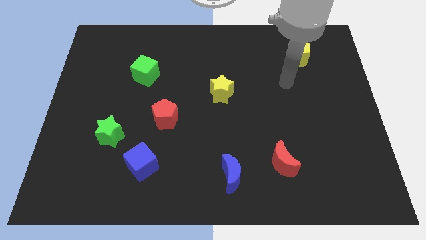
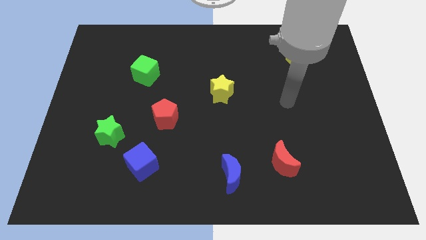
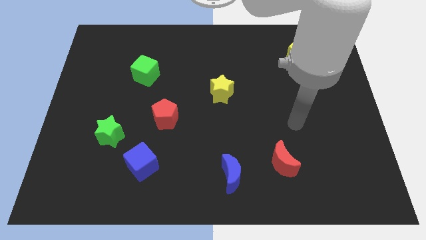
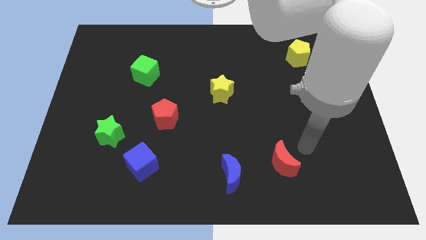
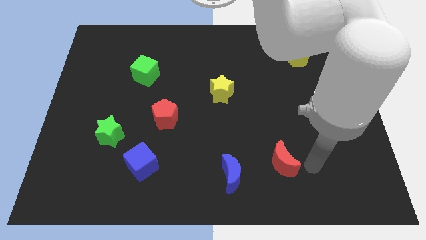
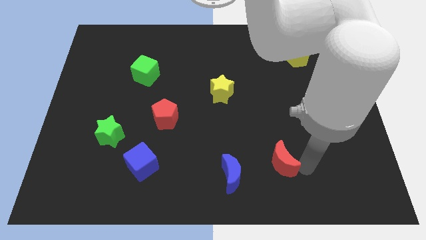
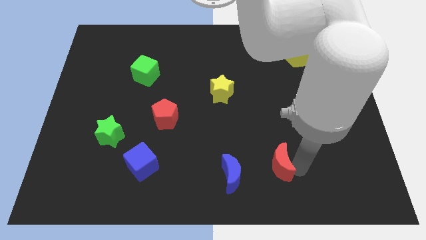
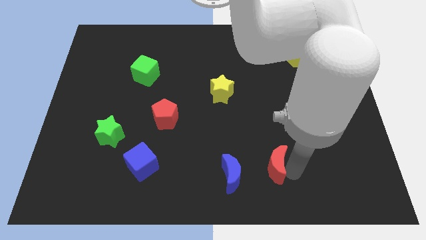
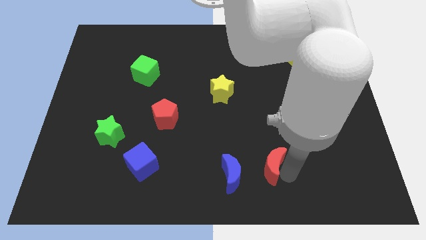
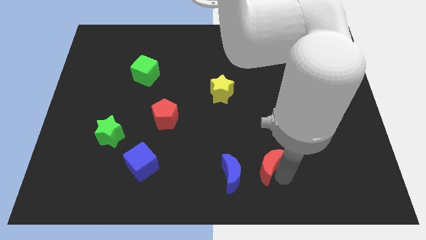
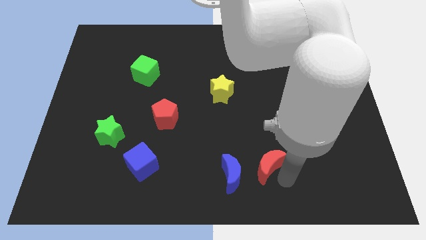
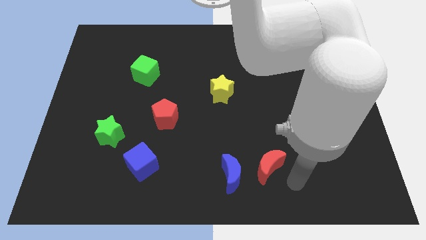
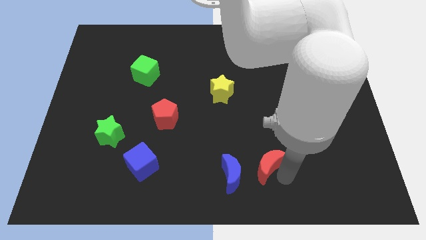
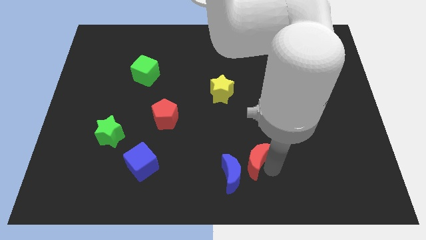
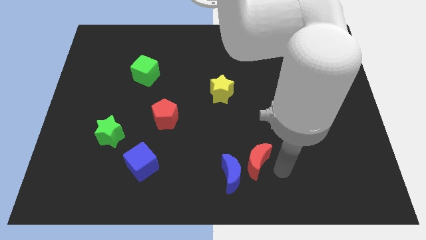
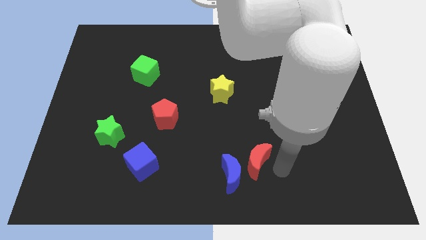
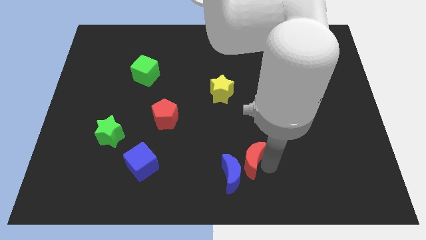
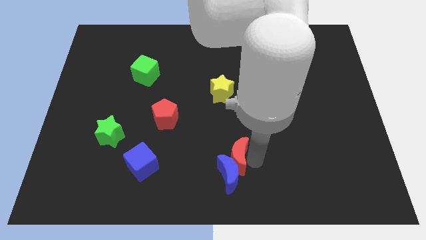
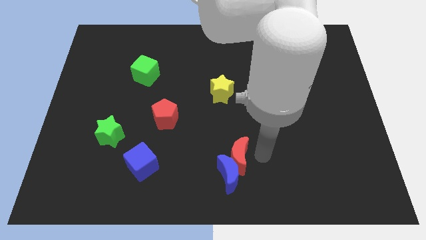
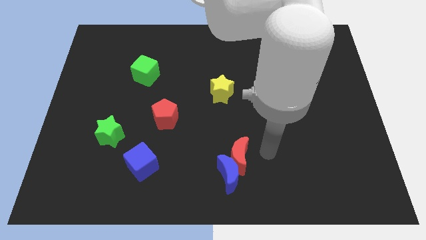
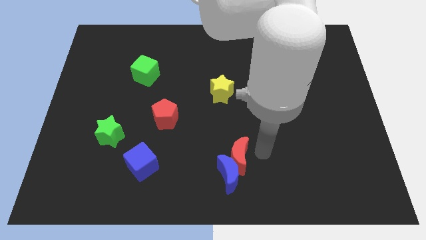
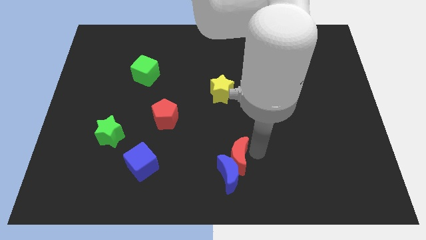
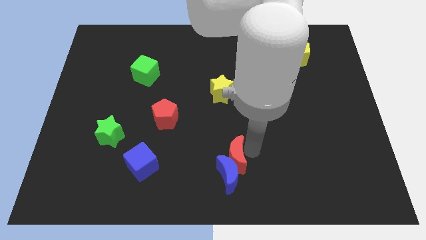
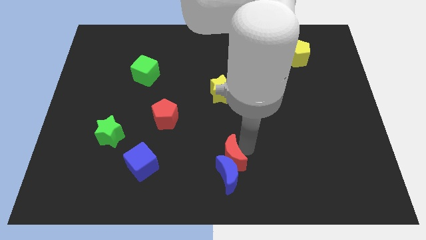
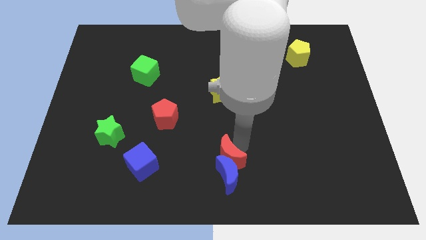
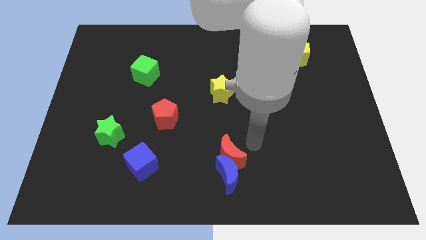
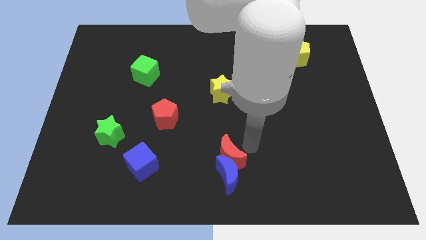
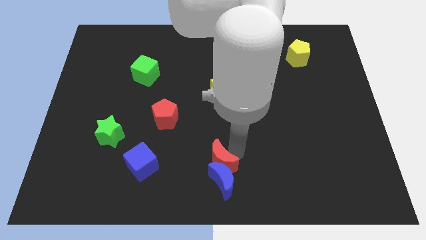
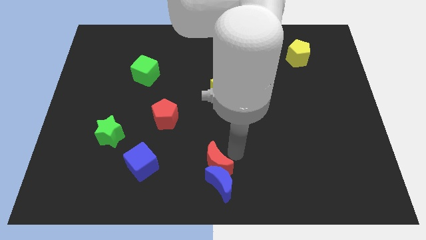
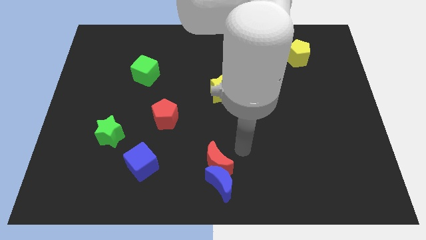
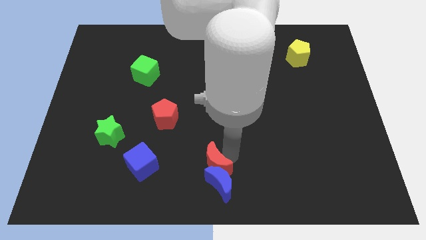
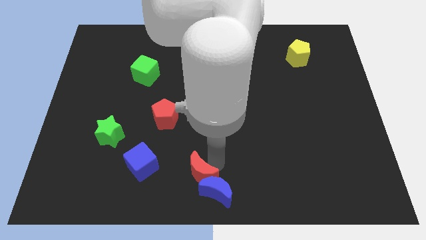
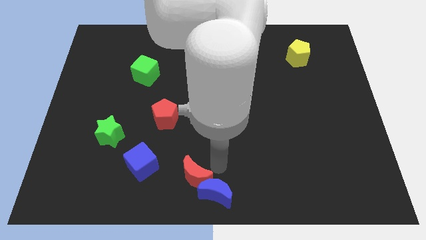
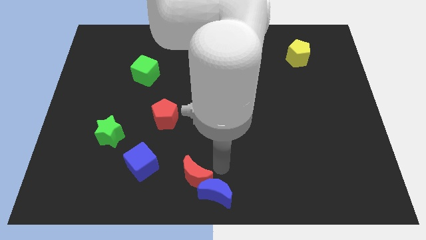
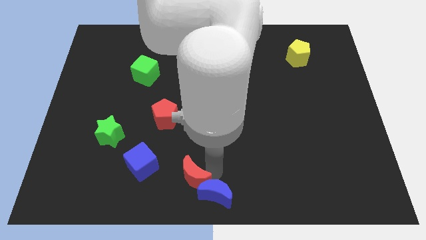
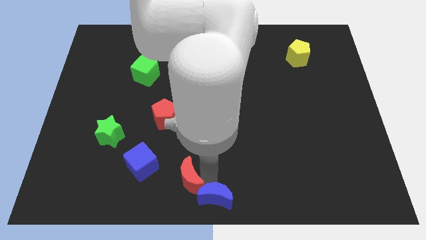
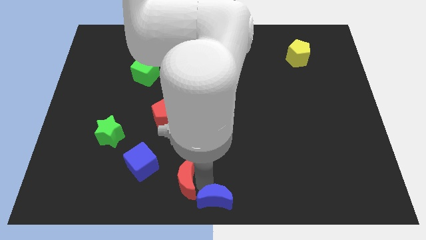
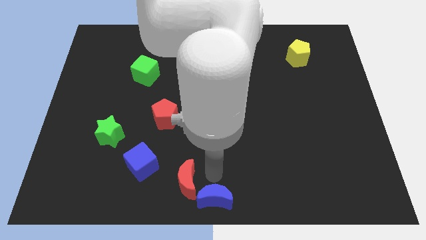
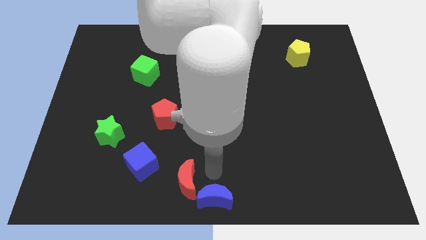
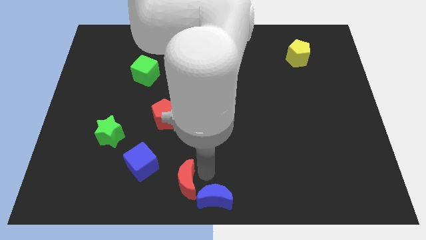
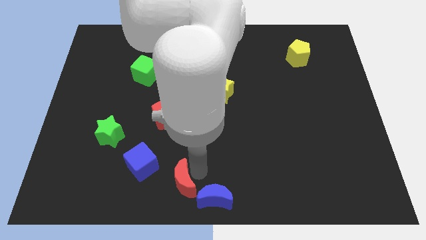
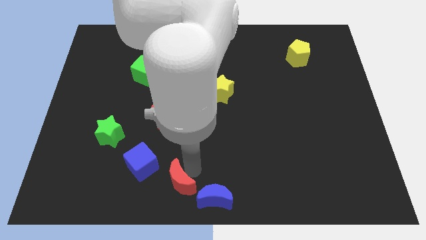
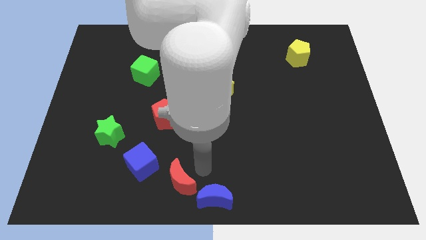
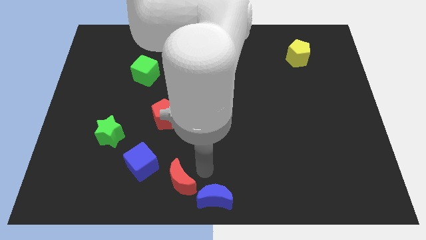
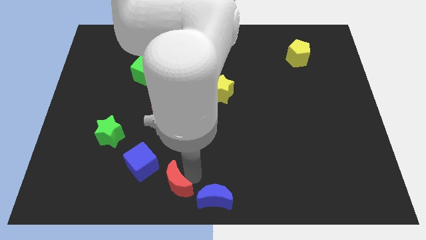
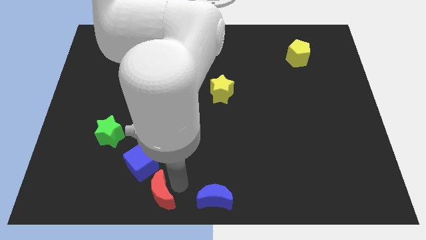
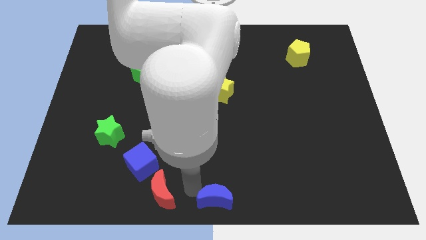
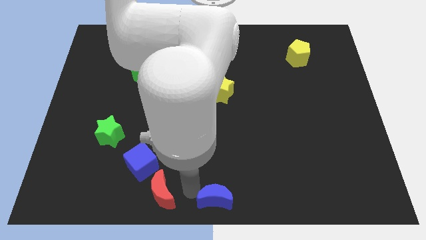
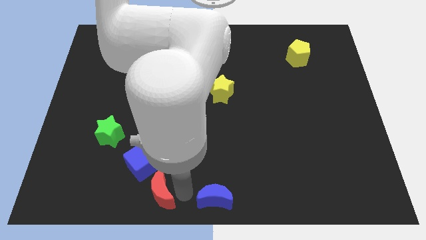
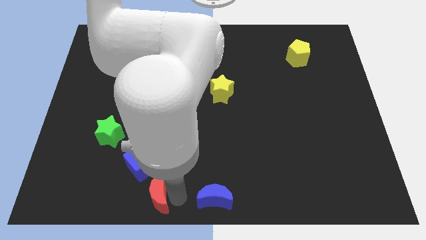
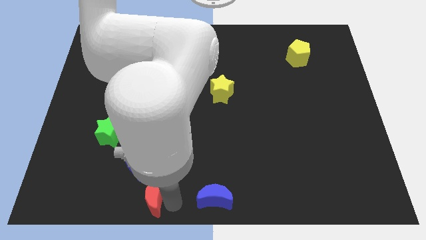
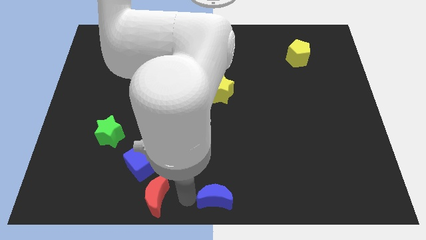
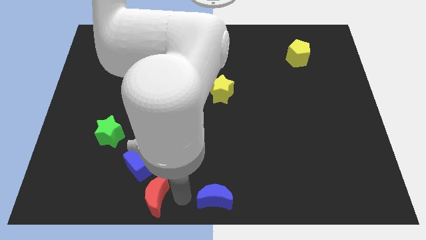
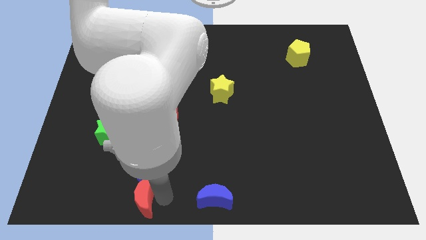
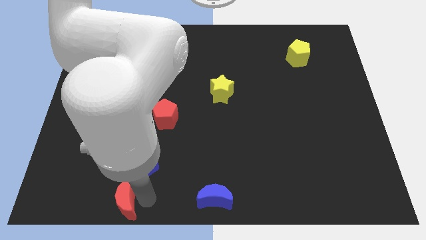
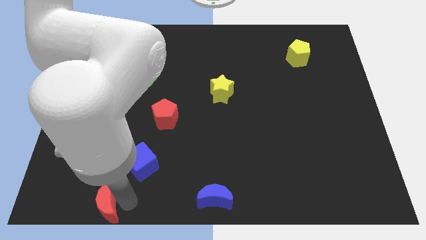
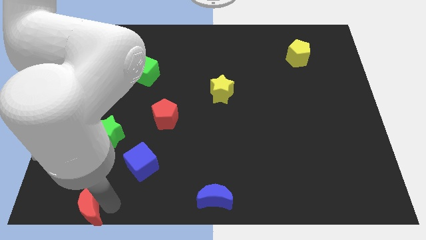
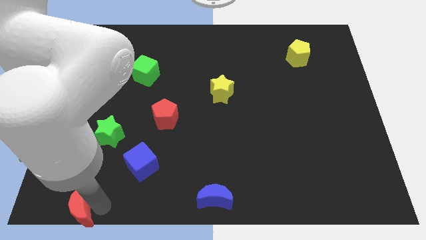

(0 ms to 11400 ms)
push the red moon to the bottom left corner
